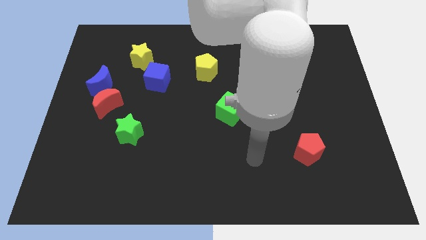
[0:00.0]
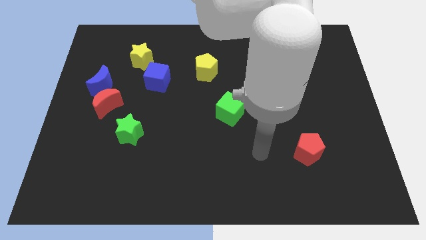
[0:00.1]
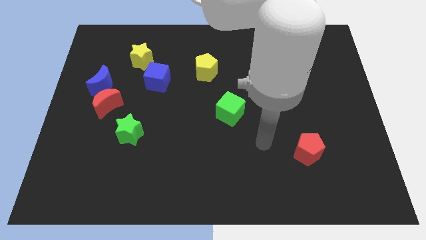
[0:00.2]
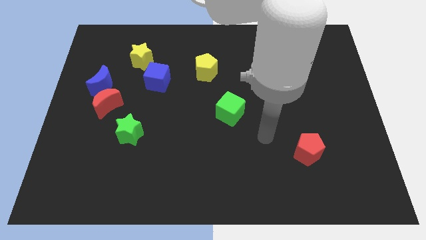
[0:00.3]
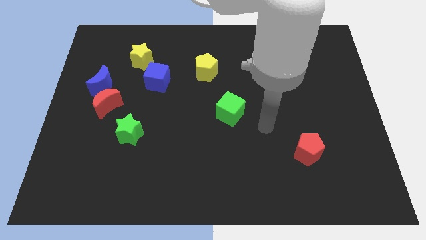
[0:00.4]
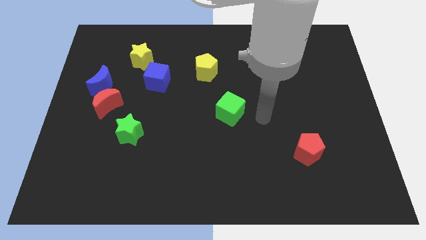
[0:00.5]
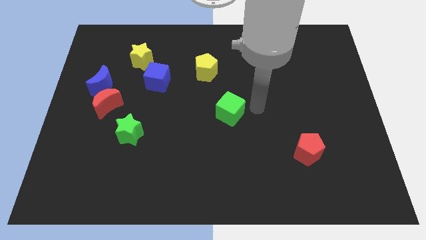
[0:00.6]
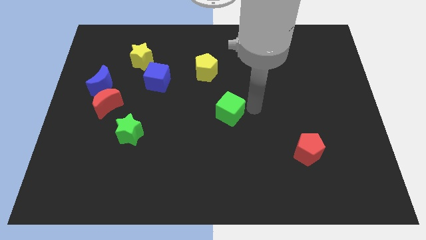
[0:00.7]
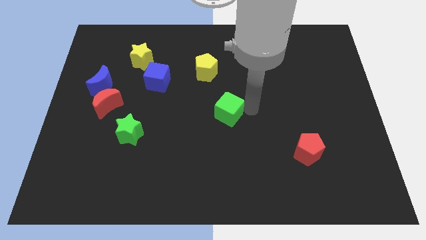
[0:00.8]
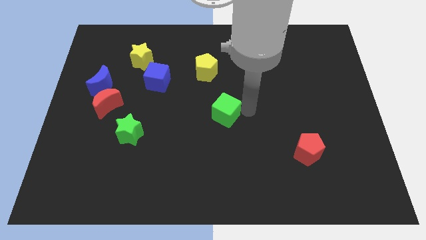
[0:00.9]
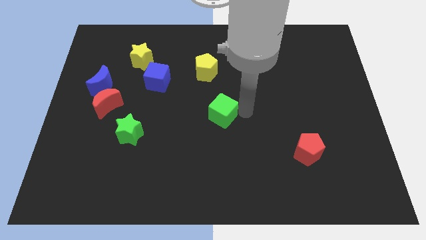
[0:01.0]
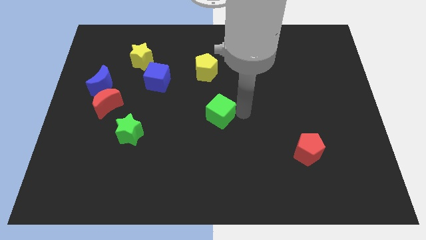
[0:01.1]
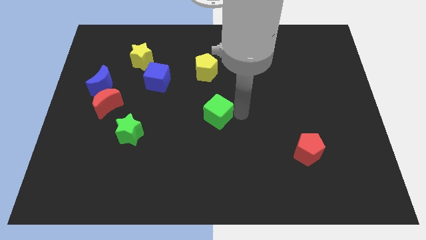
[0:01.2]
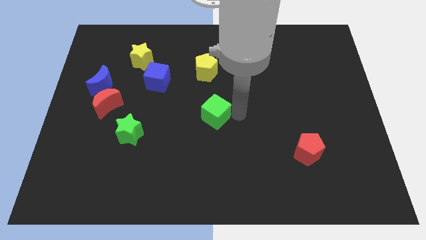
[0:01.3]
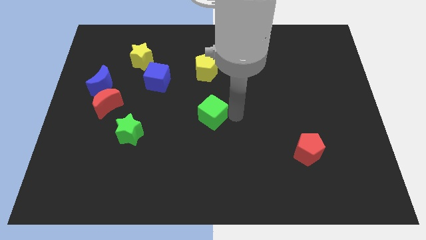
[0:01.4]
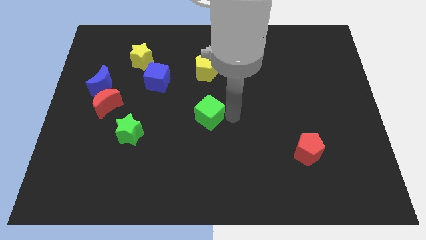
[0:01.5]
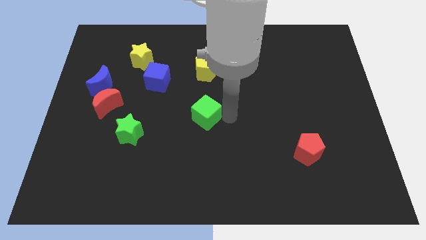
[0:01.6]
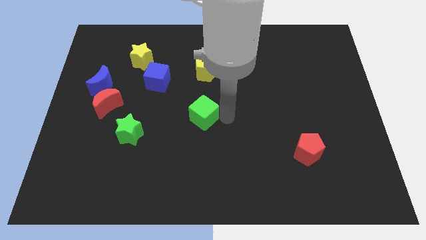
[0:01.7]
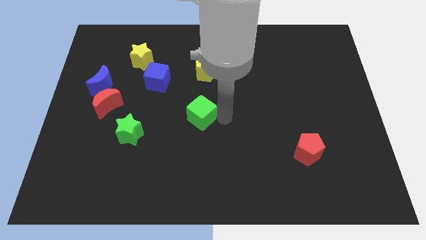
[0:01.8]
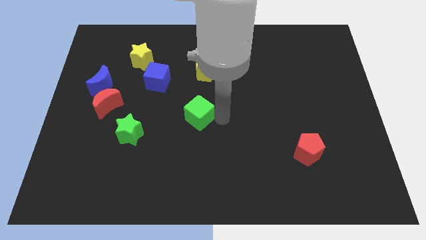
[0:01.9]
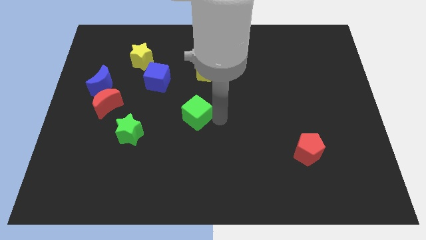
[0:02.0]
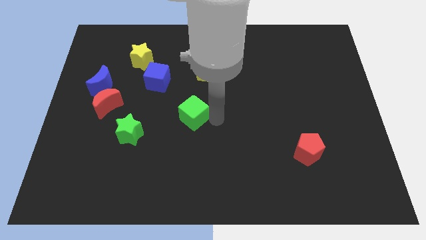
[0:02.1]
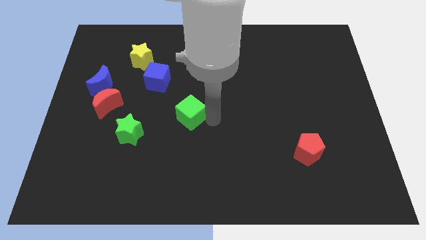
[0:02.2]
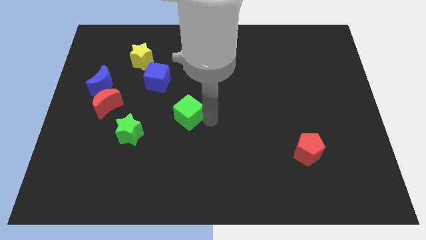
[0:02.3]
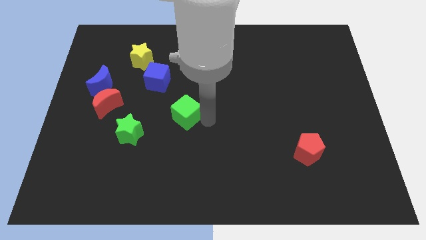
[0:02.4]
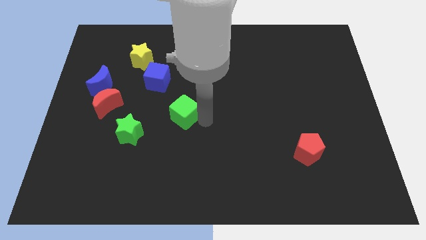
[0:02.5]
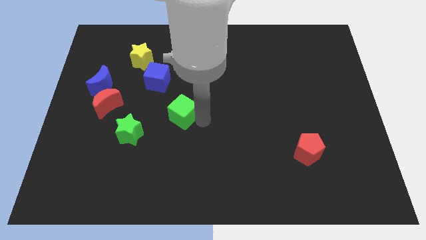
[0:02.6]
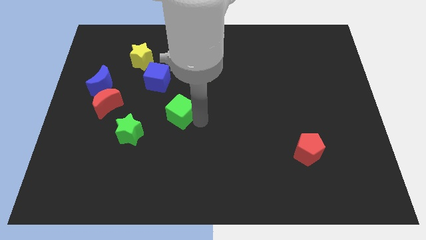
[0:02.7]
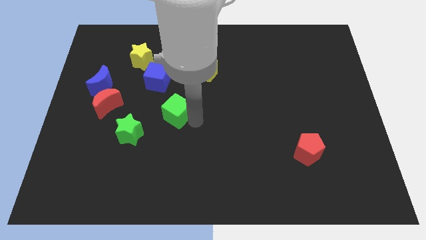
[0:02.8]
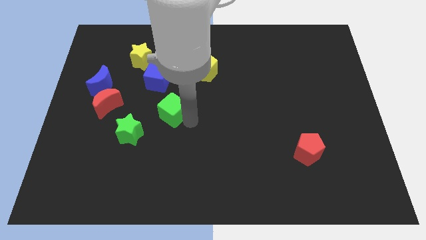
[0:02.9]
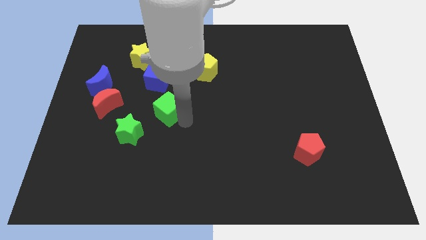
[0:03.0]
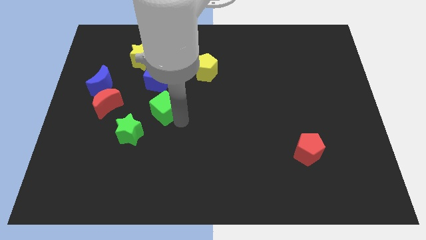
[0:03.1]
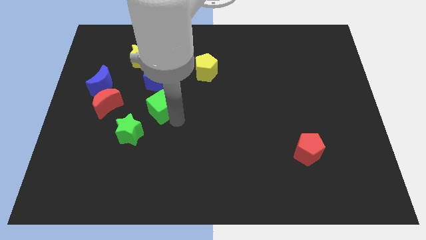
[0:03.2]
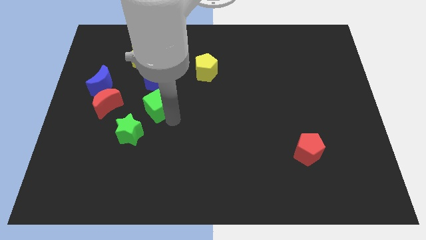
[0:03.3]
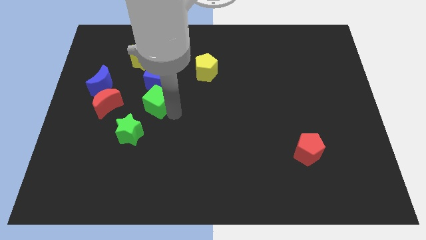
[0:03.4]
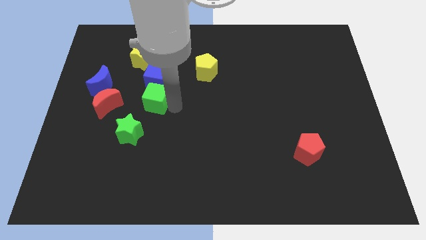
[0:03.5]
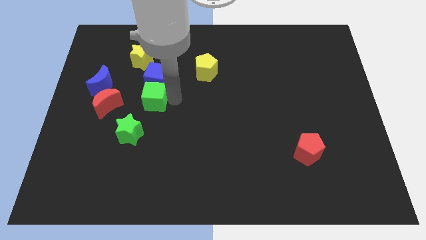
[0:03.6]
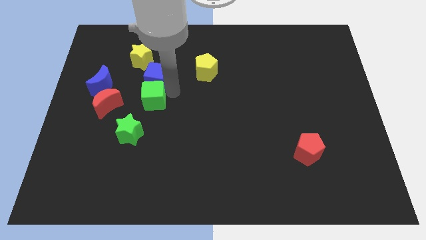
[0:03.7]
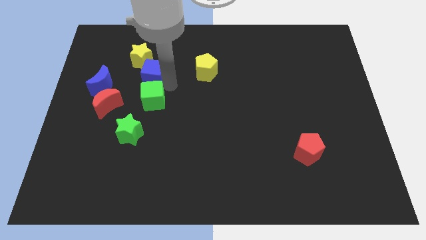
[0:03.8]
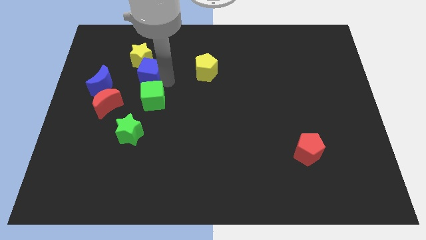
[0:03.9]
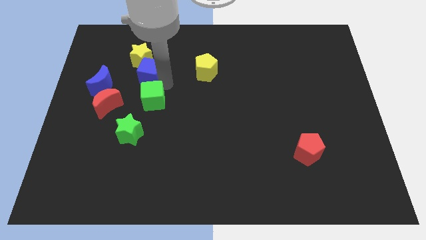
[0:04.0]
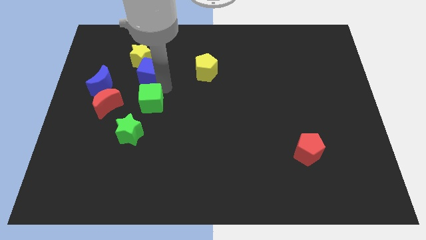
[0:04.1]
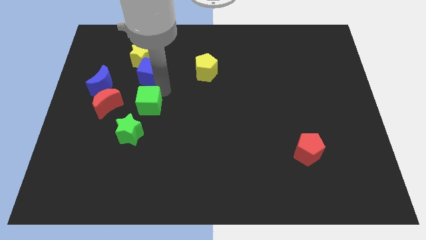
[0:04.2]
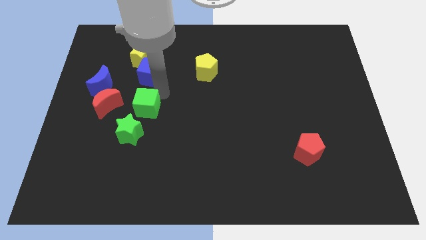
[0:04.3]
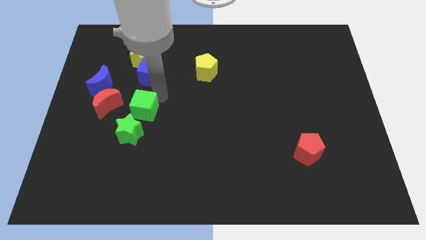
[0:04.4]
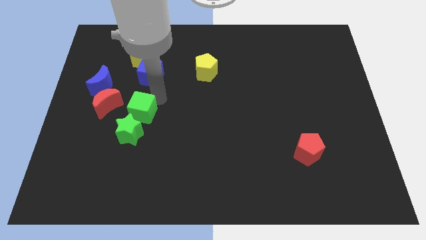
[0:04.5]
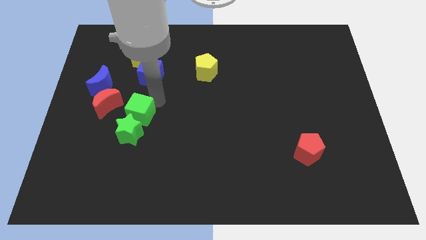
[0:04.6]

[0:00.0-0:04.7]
move the green cube close to the green star

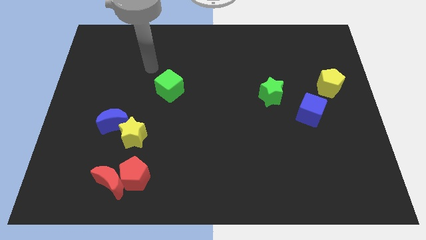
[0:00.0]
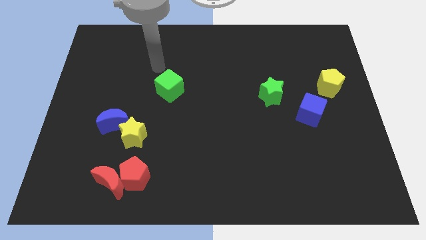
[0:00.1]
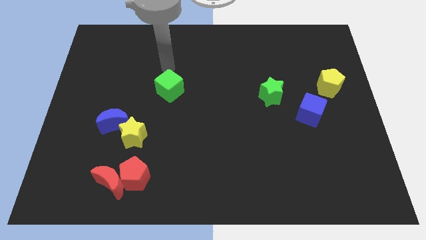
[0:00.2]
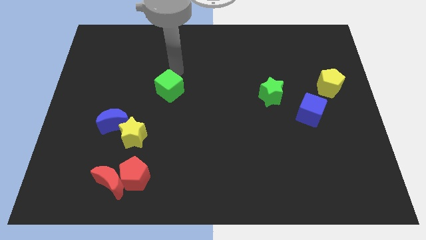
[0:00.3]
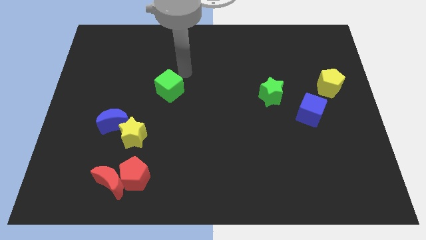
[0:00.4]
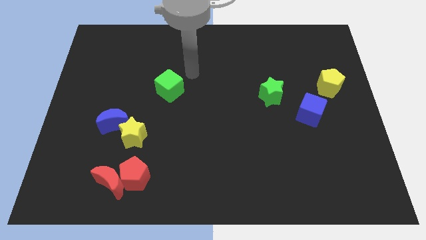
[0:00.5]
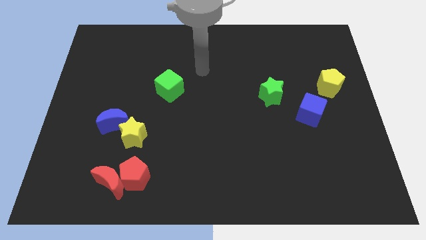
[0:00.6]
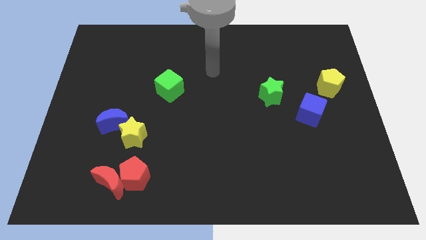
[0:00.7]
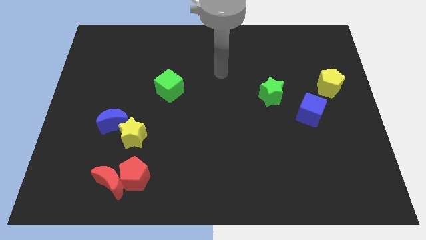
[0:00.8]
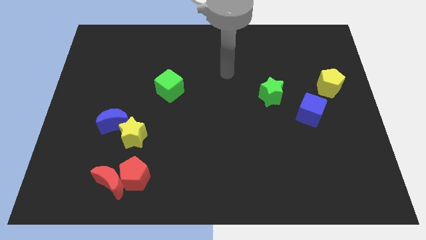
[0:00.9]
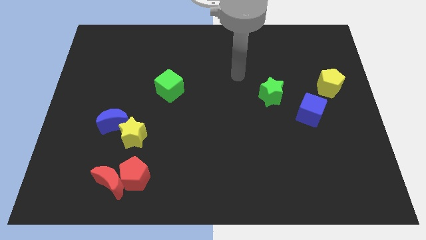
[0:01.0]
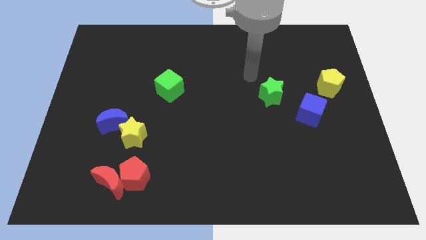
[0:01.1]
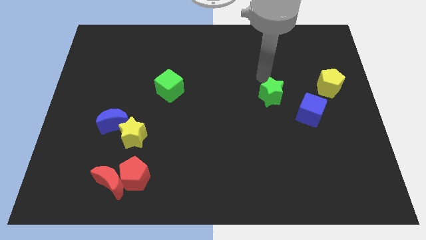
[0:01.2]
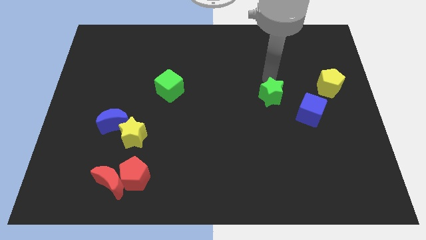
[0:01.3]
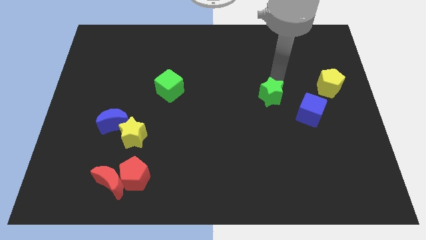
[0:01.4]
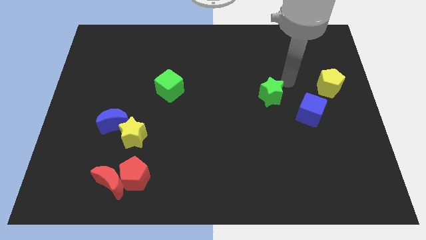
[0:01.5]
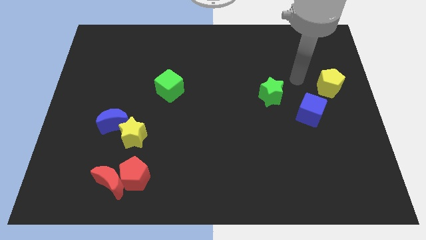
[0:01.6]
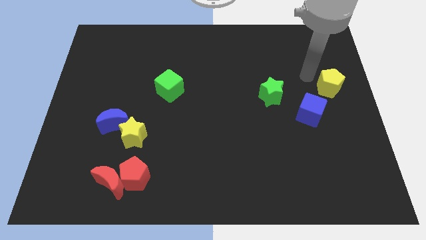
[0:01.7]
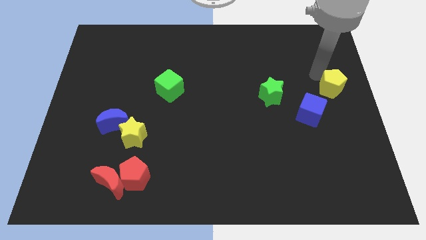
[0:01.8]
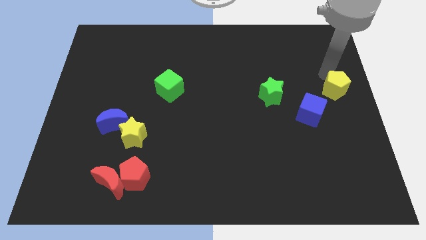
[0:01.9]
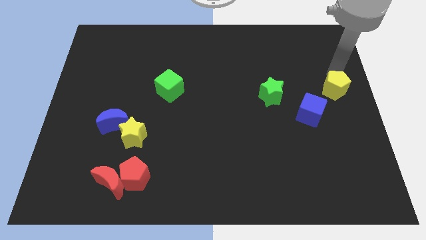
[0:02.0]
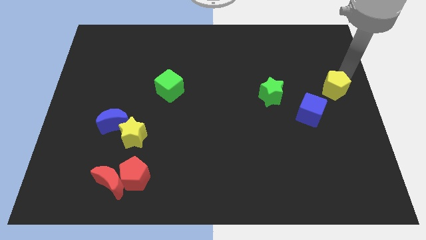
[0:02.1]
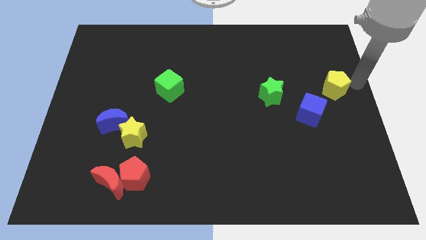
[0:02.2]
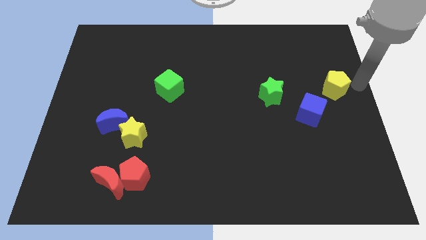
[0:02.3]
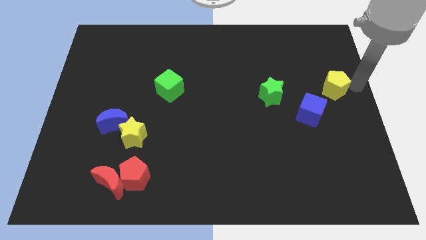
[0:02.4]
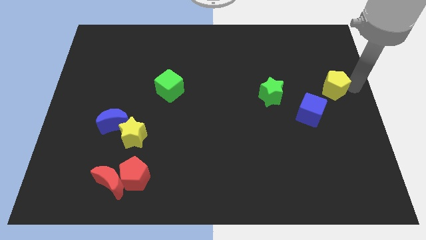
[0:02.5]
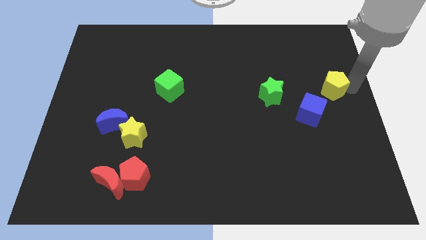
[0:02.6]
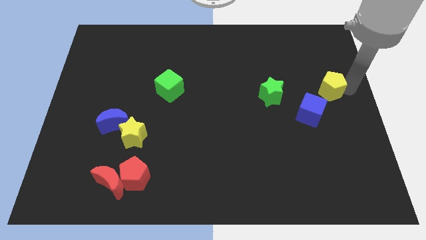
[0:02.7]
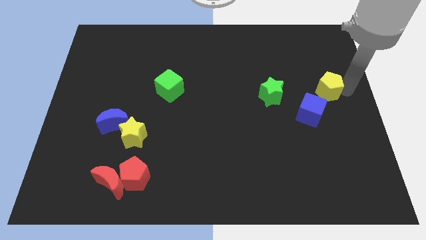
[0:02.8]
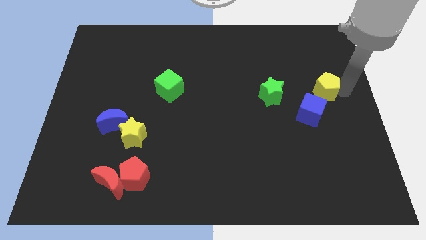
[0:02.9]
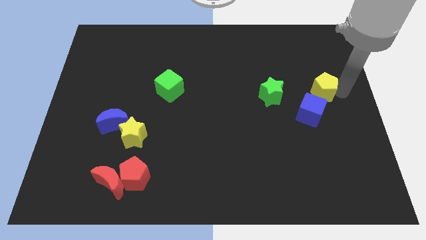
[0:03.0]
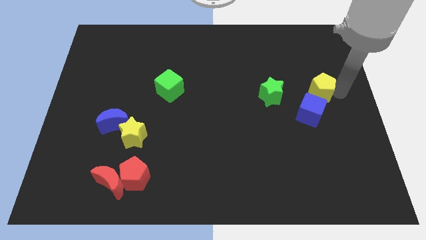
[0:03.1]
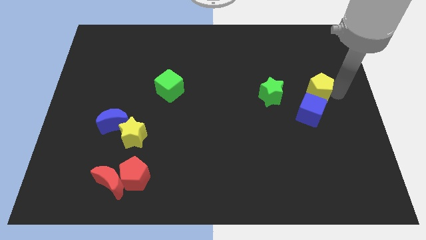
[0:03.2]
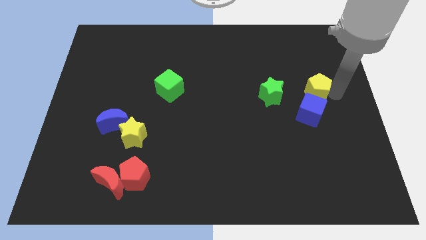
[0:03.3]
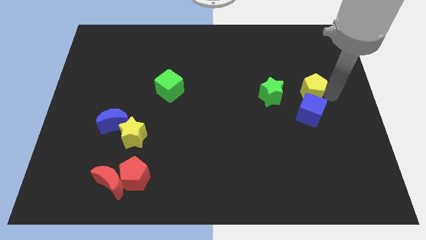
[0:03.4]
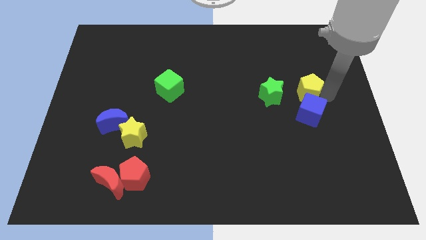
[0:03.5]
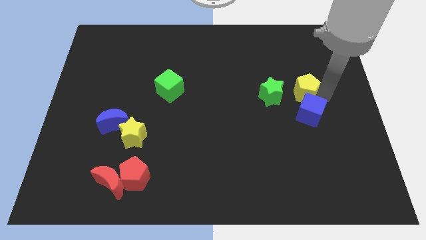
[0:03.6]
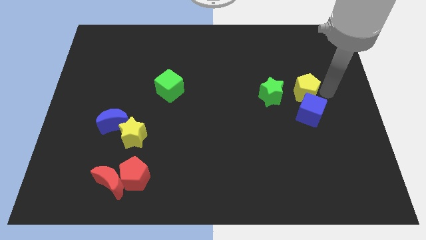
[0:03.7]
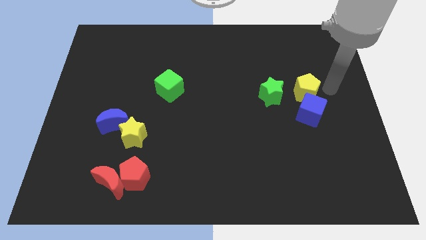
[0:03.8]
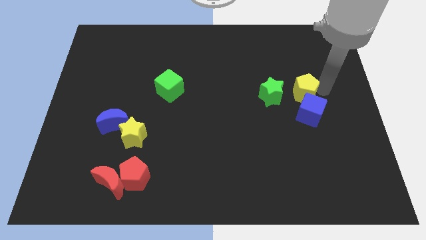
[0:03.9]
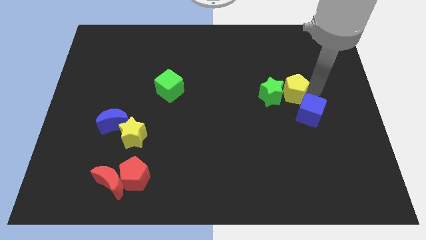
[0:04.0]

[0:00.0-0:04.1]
push the yellow pentagon next to the green star
